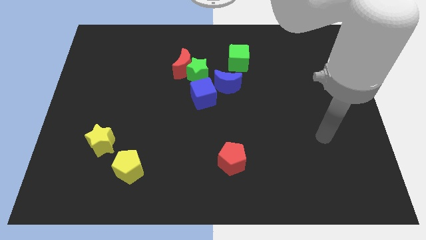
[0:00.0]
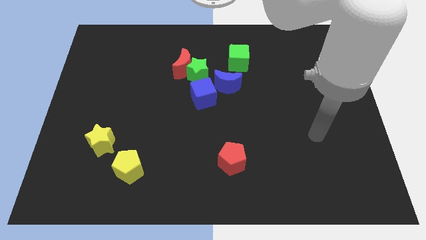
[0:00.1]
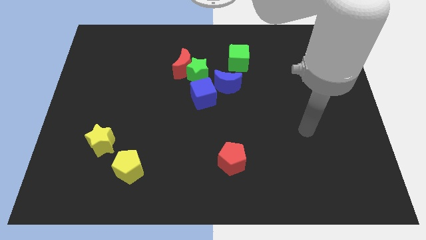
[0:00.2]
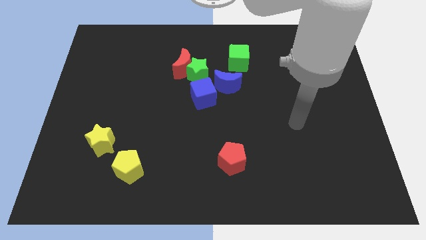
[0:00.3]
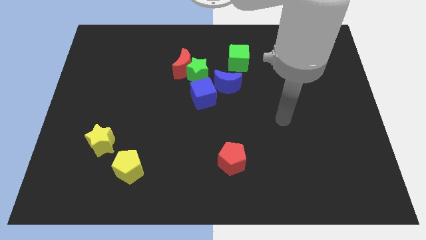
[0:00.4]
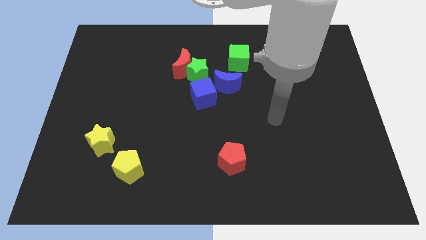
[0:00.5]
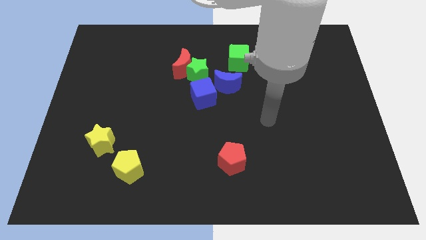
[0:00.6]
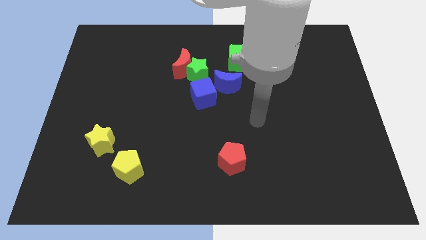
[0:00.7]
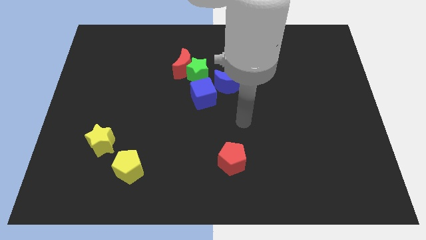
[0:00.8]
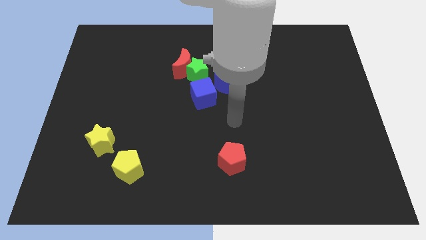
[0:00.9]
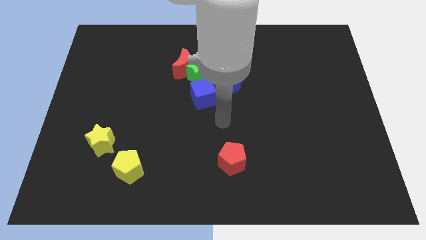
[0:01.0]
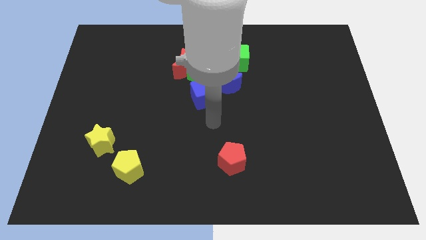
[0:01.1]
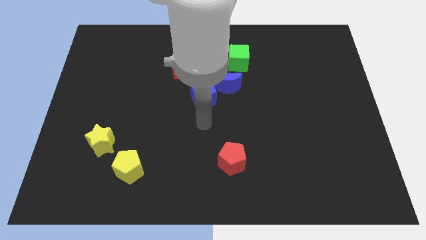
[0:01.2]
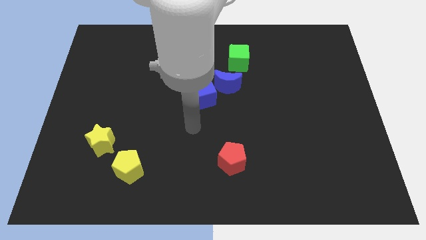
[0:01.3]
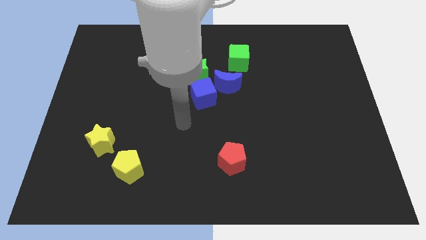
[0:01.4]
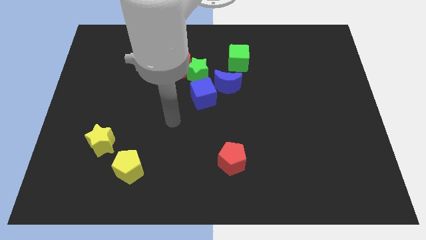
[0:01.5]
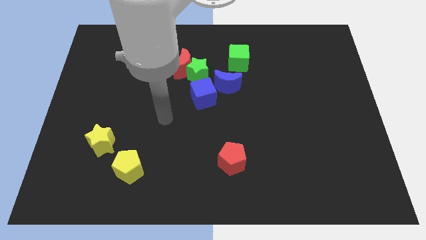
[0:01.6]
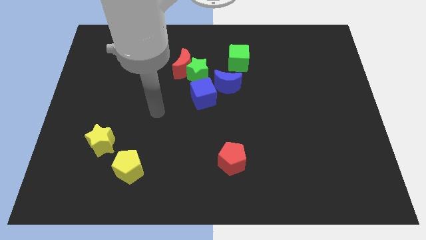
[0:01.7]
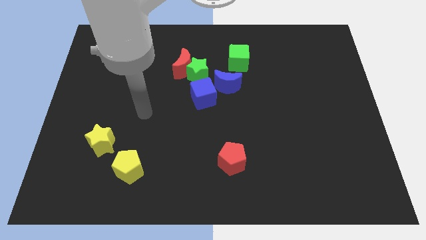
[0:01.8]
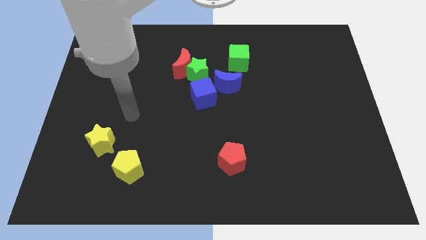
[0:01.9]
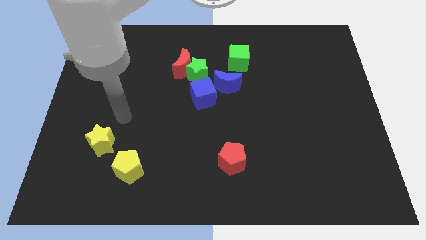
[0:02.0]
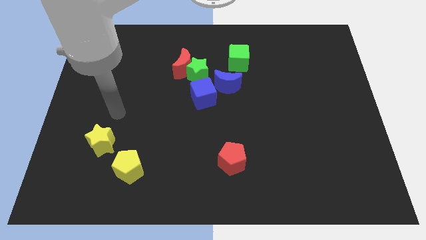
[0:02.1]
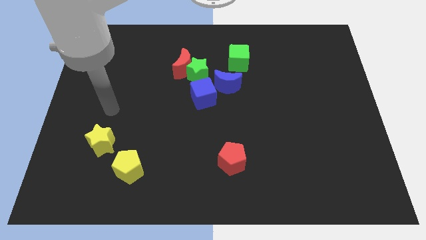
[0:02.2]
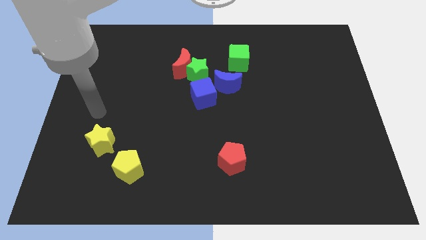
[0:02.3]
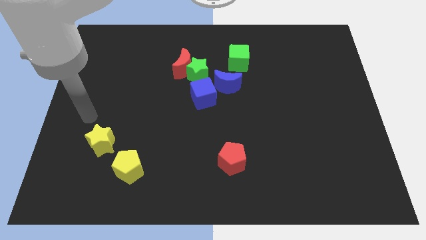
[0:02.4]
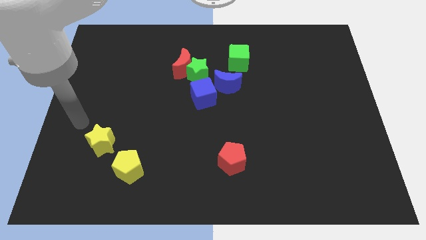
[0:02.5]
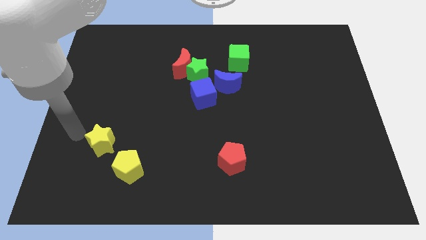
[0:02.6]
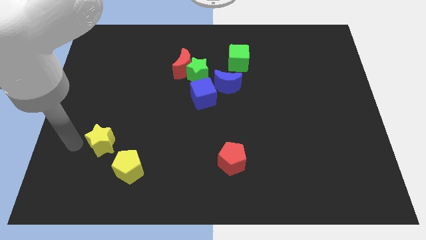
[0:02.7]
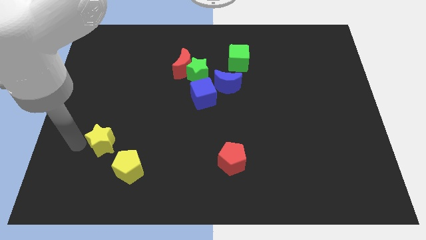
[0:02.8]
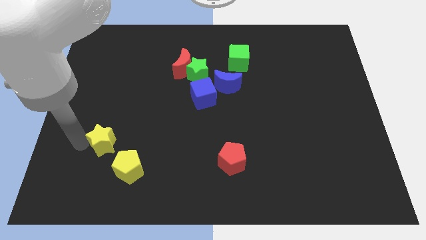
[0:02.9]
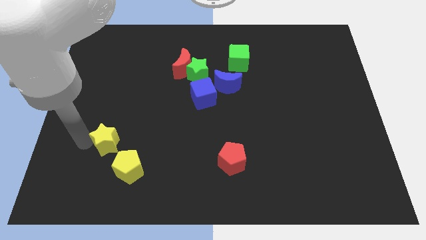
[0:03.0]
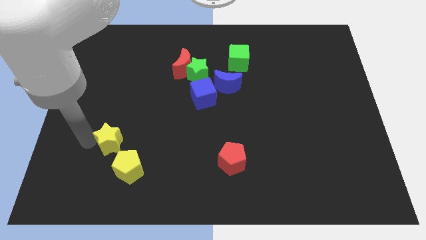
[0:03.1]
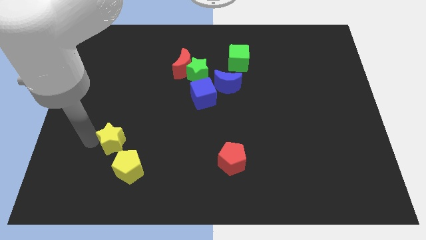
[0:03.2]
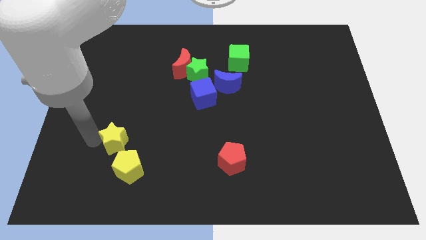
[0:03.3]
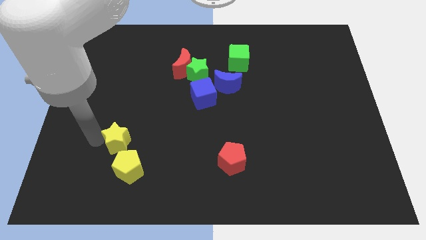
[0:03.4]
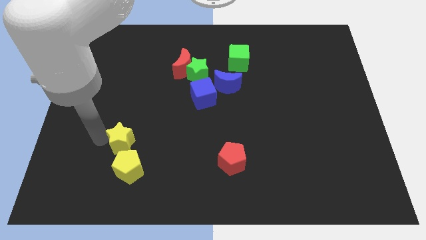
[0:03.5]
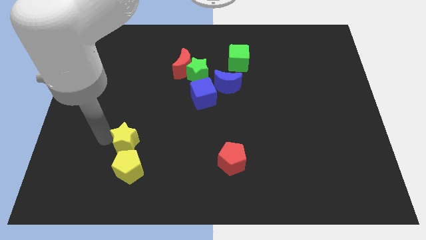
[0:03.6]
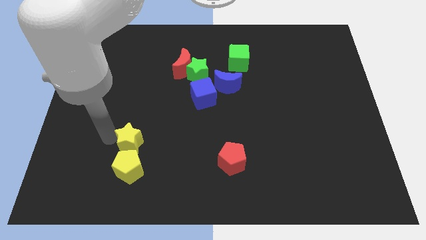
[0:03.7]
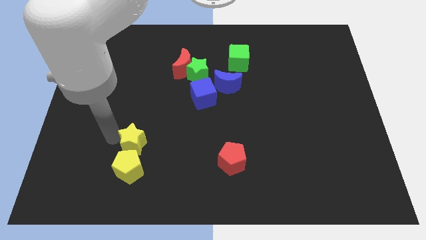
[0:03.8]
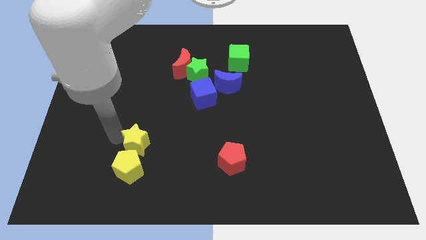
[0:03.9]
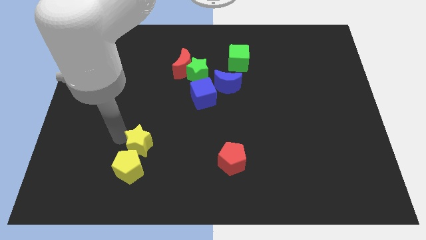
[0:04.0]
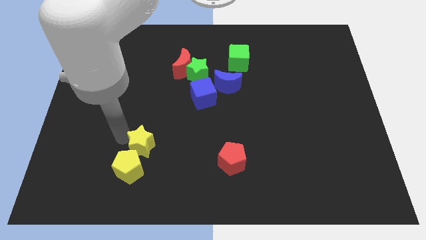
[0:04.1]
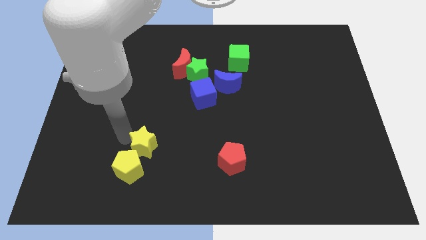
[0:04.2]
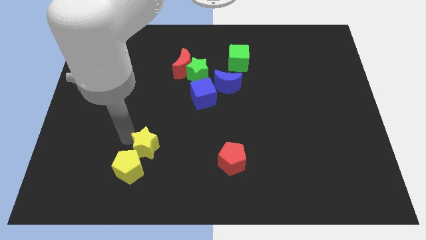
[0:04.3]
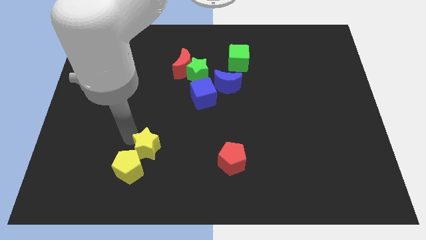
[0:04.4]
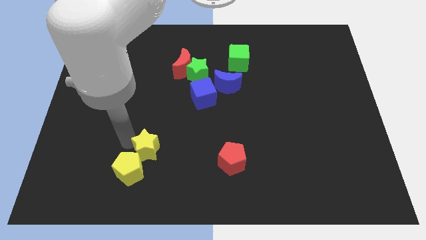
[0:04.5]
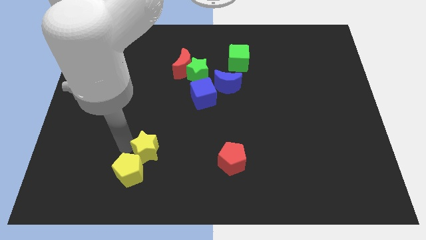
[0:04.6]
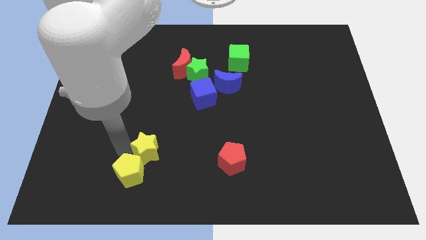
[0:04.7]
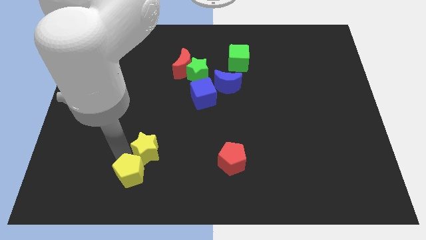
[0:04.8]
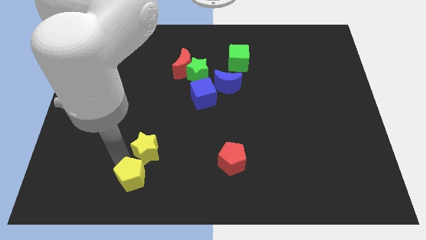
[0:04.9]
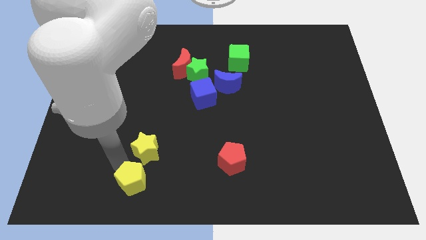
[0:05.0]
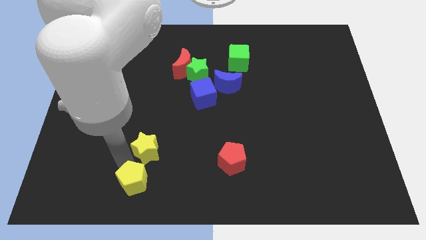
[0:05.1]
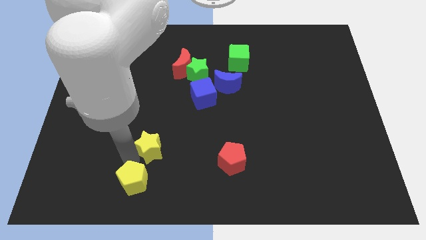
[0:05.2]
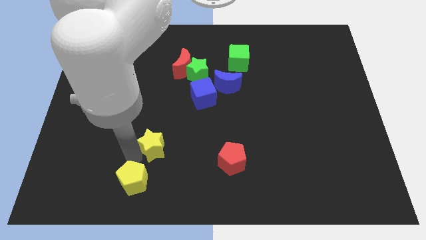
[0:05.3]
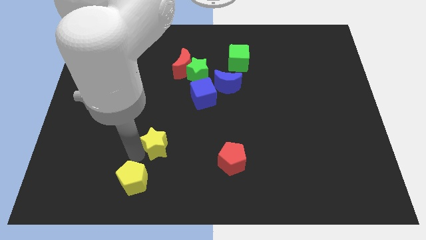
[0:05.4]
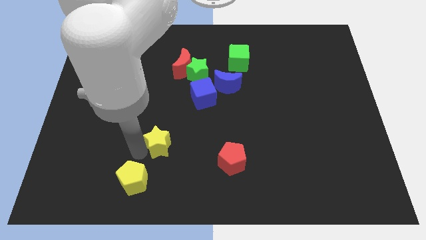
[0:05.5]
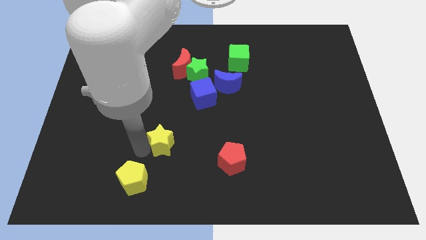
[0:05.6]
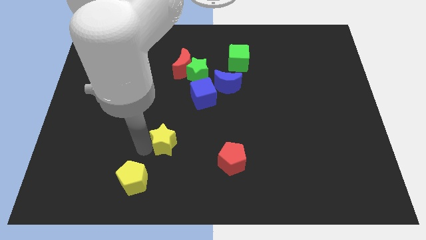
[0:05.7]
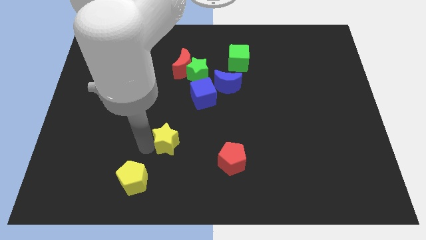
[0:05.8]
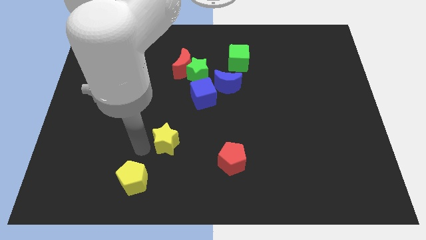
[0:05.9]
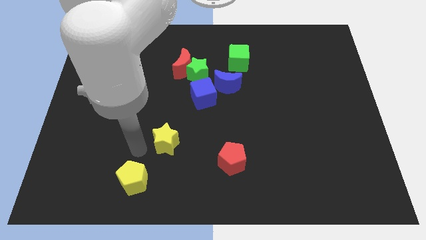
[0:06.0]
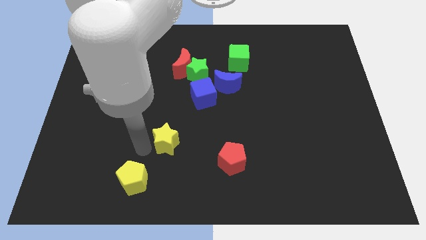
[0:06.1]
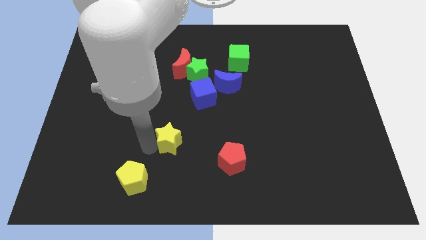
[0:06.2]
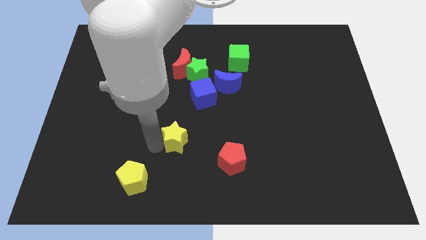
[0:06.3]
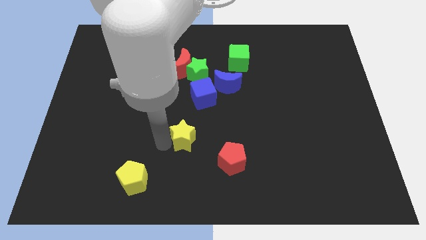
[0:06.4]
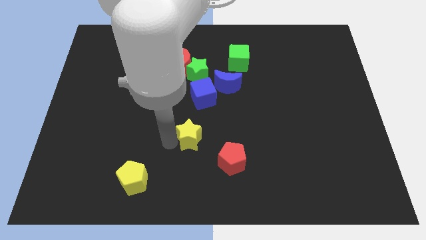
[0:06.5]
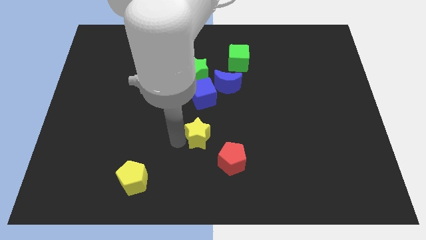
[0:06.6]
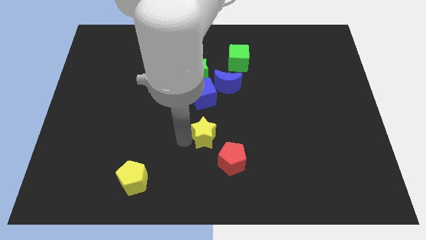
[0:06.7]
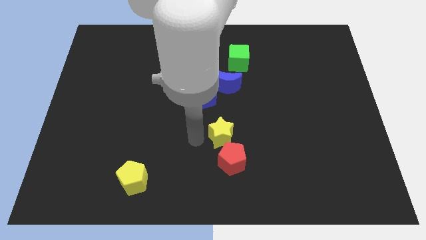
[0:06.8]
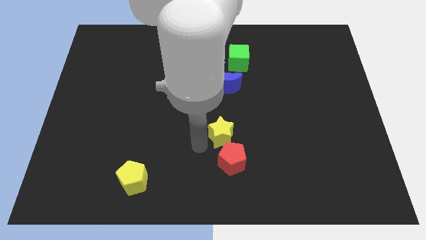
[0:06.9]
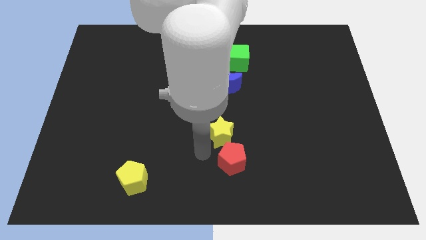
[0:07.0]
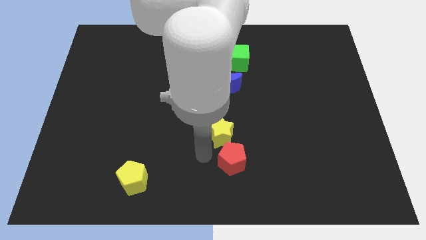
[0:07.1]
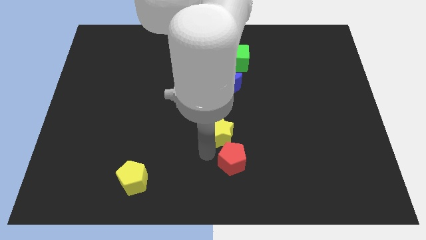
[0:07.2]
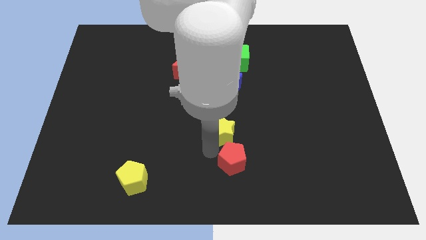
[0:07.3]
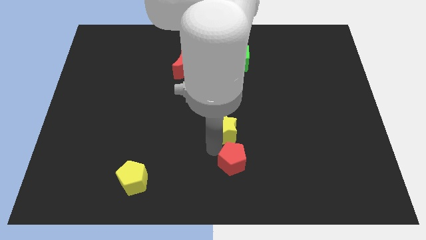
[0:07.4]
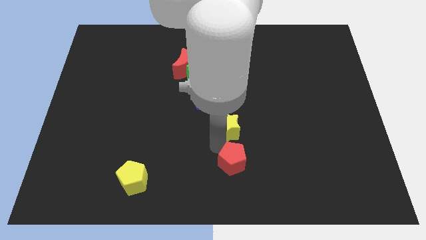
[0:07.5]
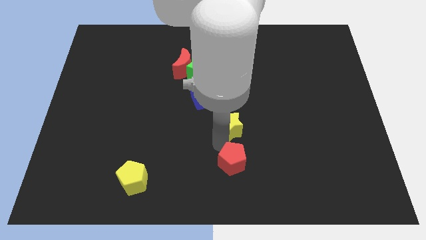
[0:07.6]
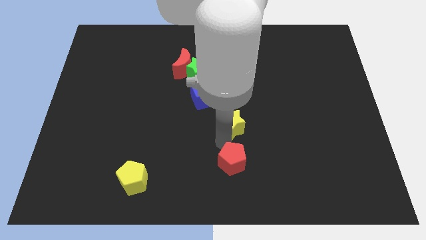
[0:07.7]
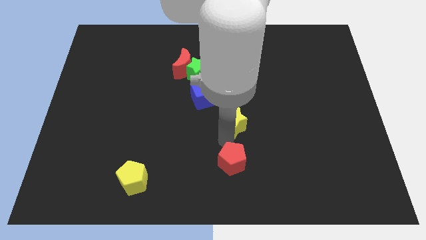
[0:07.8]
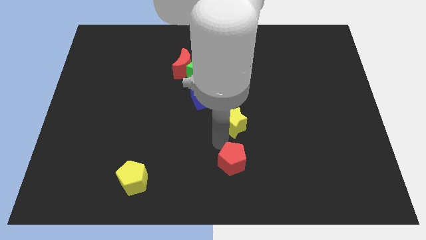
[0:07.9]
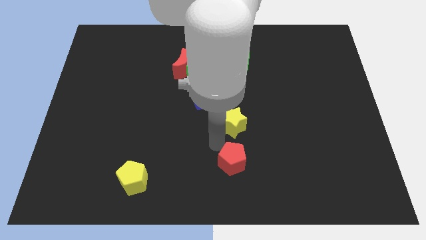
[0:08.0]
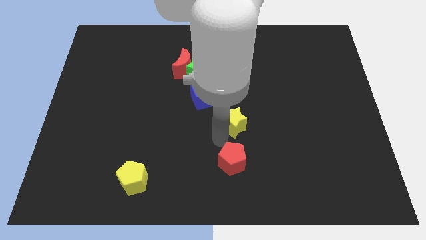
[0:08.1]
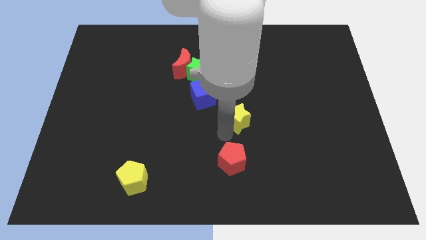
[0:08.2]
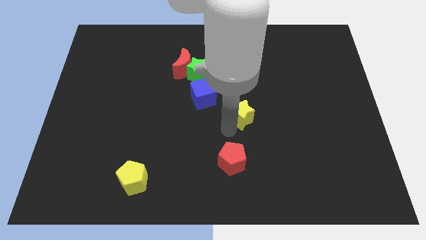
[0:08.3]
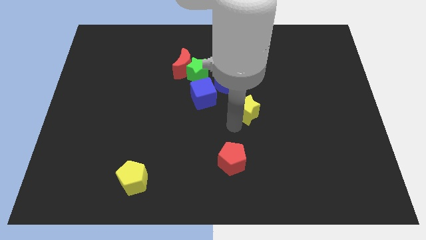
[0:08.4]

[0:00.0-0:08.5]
push the yellow star to the right side of the blue cube
